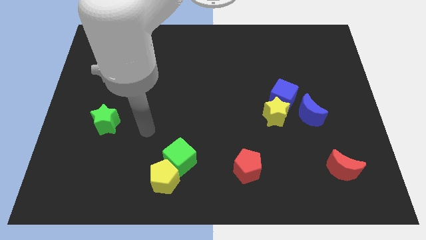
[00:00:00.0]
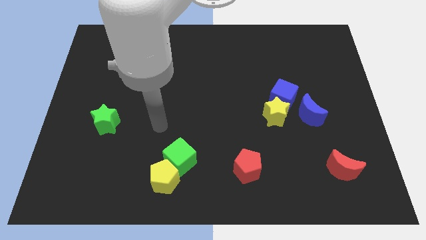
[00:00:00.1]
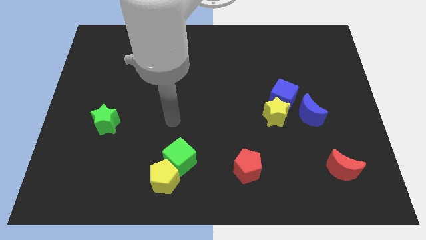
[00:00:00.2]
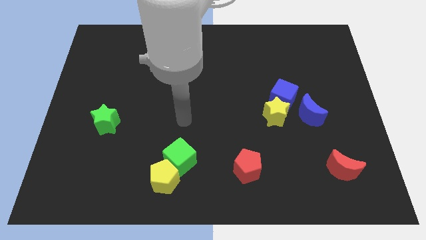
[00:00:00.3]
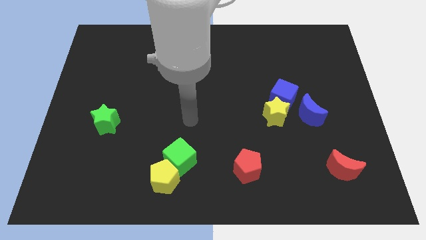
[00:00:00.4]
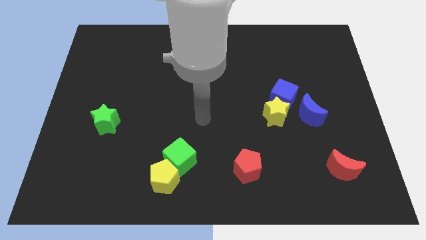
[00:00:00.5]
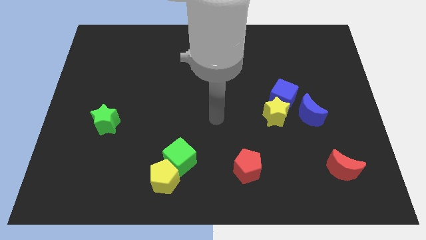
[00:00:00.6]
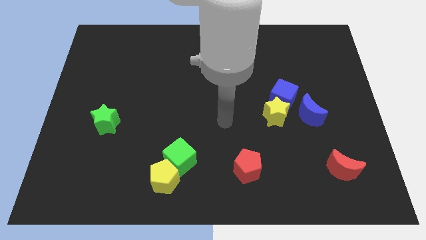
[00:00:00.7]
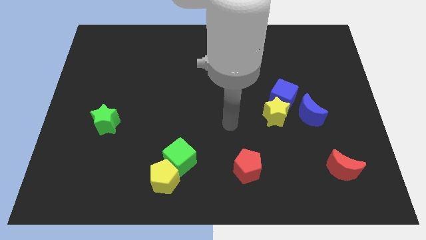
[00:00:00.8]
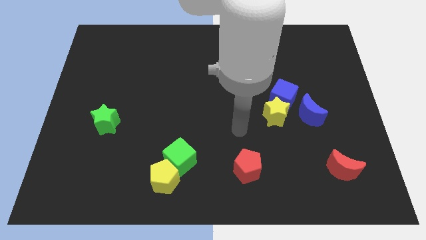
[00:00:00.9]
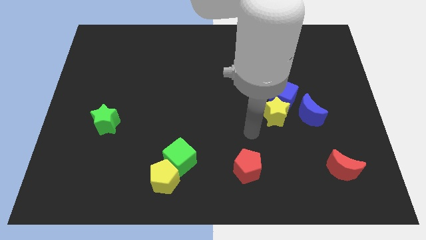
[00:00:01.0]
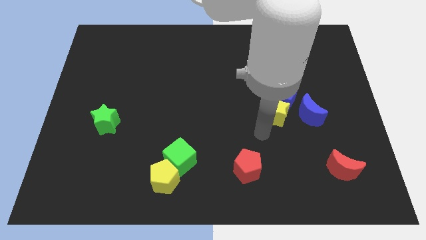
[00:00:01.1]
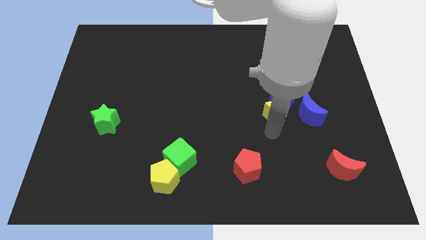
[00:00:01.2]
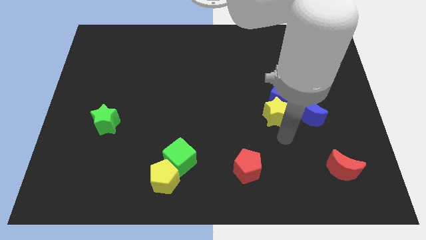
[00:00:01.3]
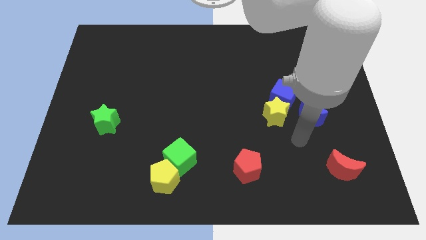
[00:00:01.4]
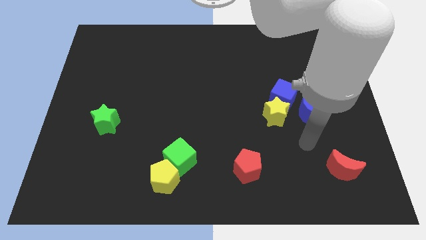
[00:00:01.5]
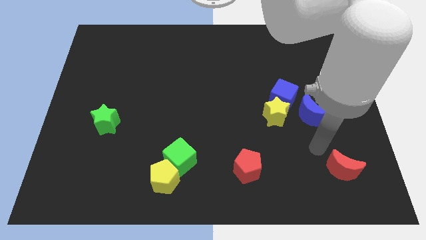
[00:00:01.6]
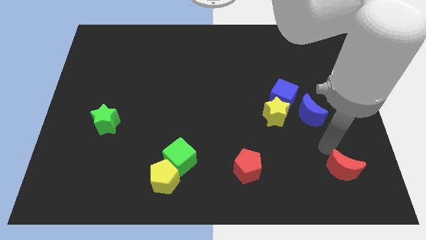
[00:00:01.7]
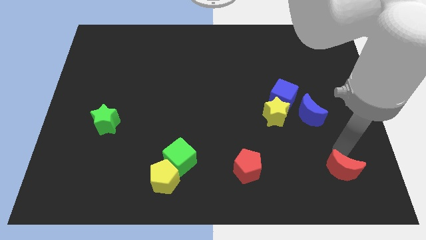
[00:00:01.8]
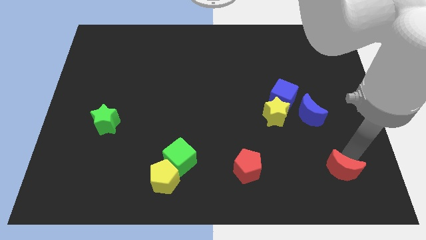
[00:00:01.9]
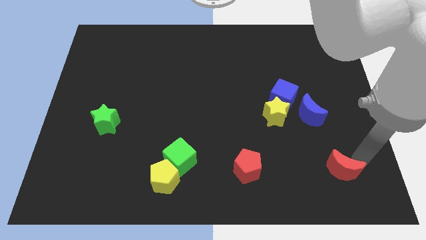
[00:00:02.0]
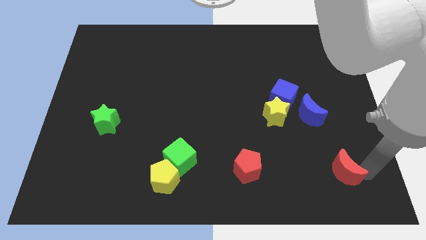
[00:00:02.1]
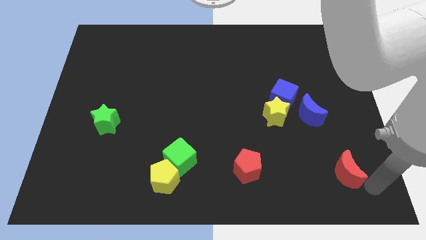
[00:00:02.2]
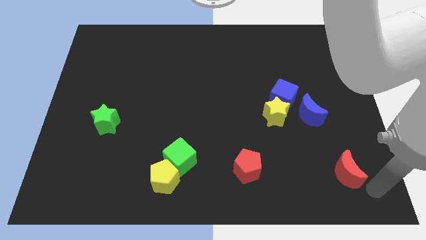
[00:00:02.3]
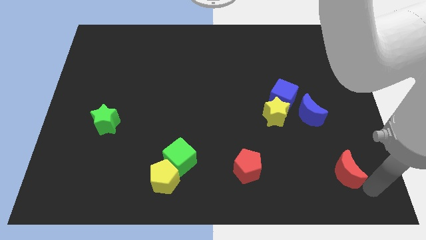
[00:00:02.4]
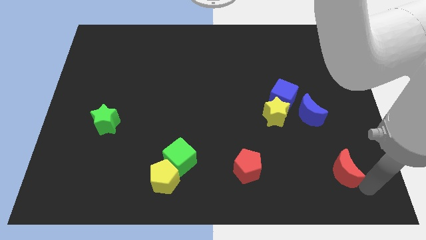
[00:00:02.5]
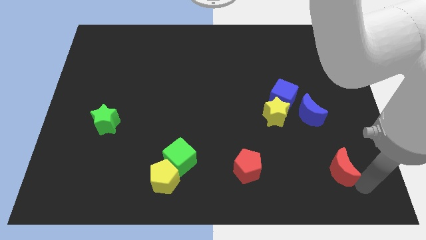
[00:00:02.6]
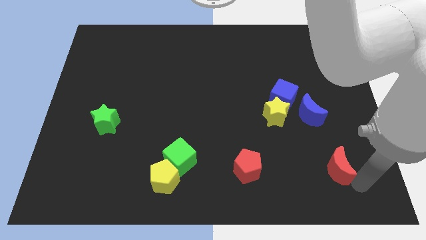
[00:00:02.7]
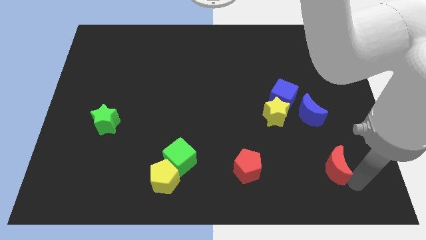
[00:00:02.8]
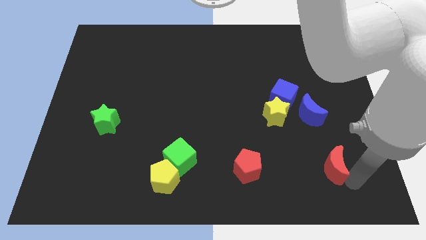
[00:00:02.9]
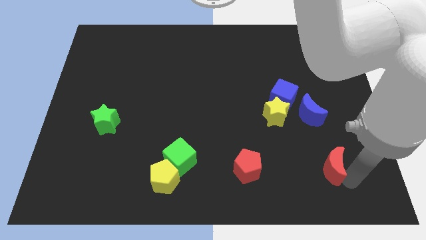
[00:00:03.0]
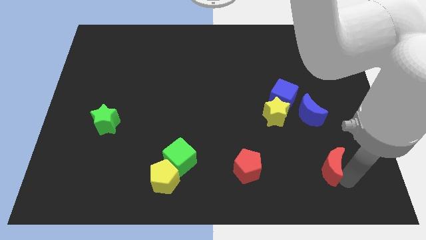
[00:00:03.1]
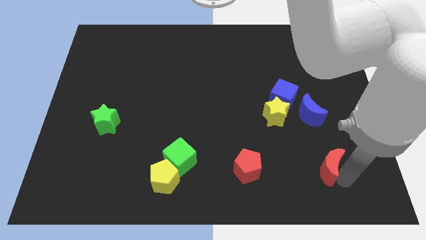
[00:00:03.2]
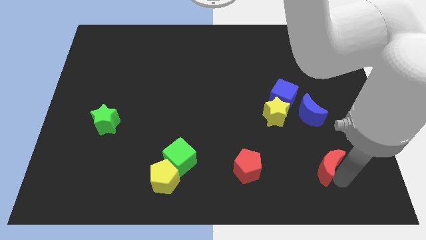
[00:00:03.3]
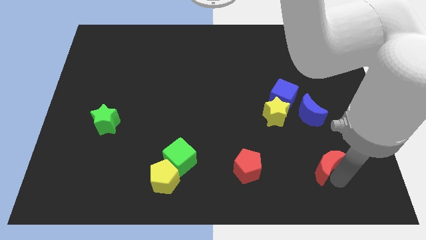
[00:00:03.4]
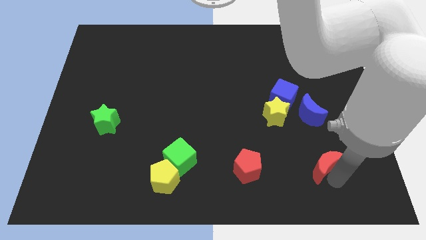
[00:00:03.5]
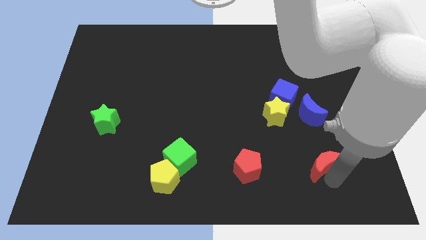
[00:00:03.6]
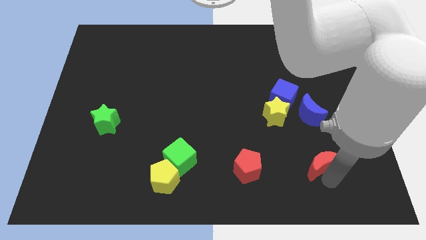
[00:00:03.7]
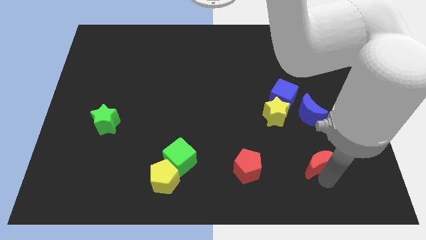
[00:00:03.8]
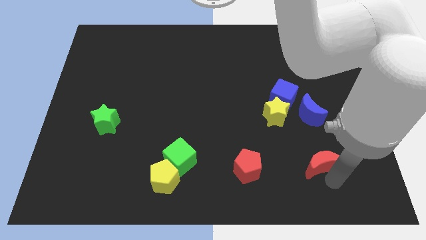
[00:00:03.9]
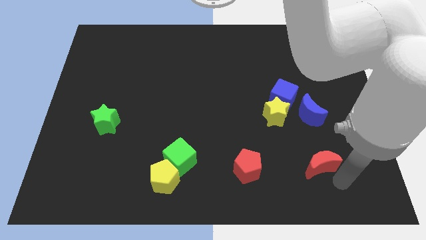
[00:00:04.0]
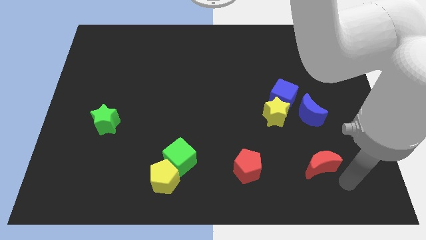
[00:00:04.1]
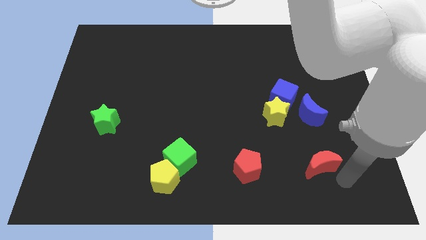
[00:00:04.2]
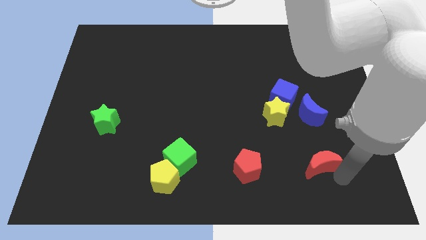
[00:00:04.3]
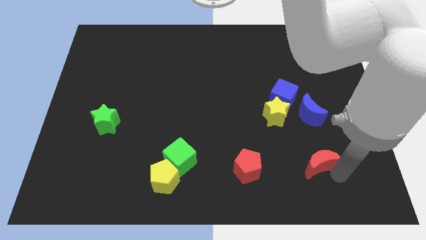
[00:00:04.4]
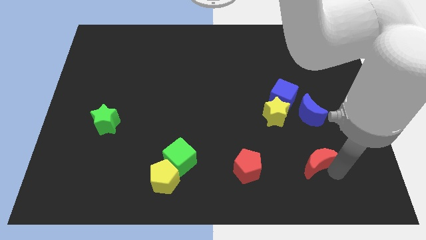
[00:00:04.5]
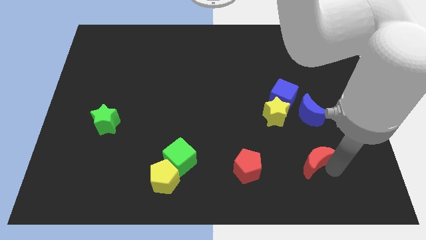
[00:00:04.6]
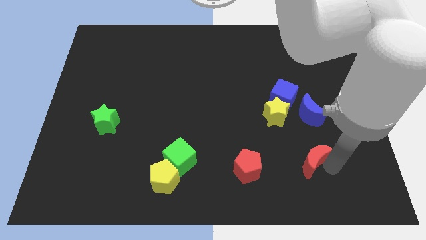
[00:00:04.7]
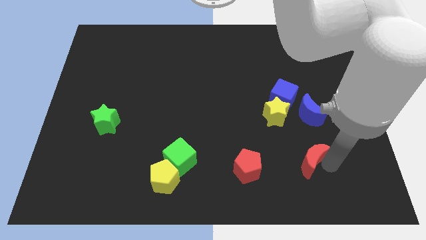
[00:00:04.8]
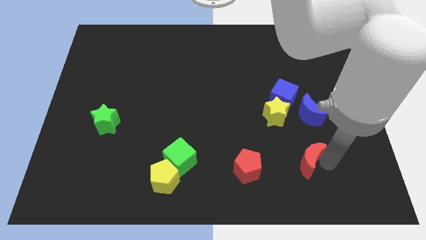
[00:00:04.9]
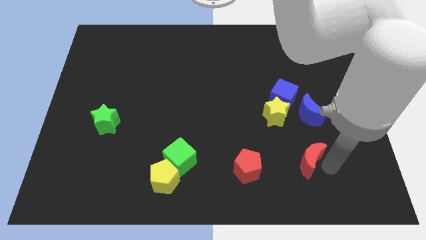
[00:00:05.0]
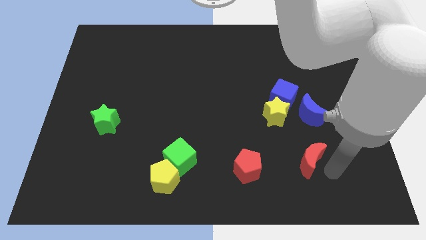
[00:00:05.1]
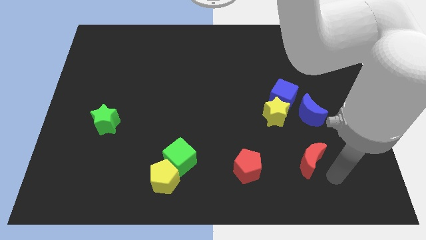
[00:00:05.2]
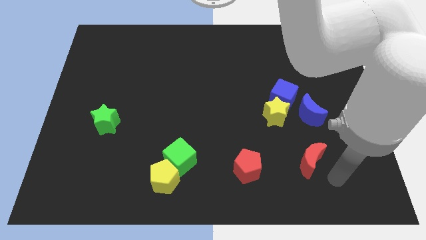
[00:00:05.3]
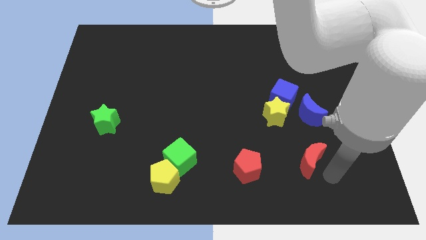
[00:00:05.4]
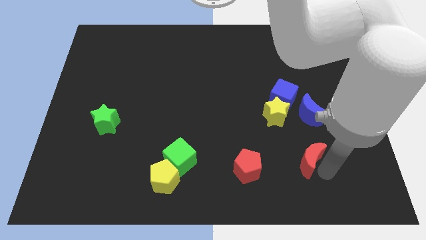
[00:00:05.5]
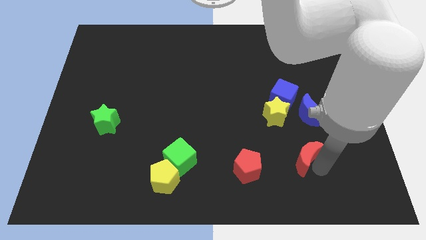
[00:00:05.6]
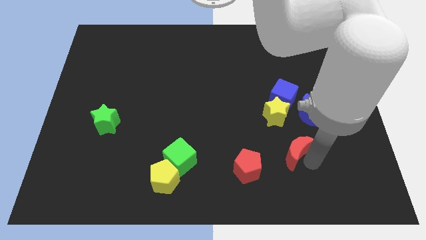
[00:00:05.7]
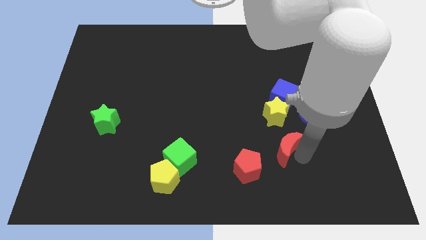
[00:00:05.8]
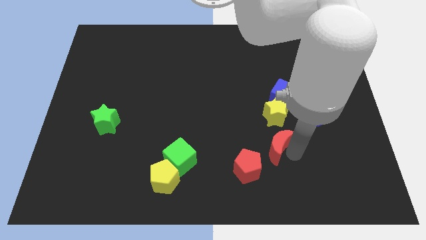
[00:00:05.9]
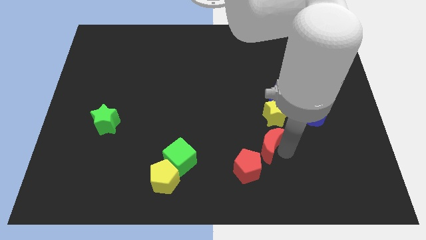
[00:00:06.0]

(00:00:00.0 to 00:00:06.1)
move the red moon diagonally down and to the left of the yellow star
